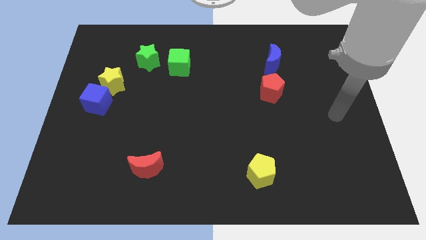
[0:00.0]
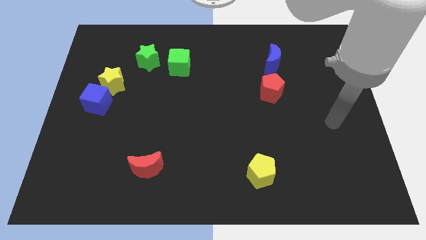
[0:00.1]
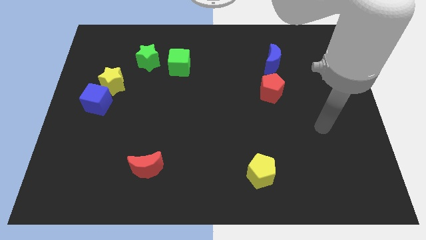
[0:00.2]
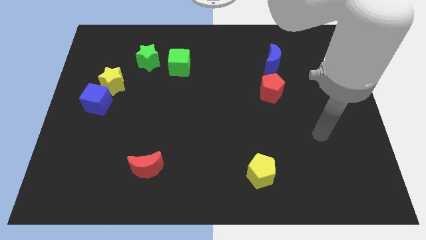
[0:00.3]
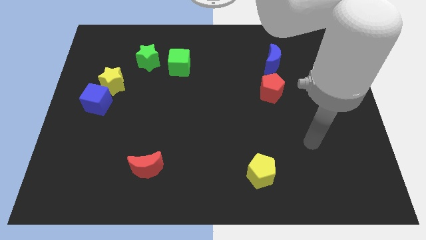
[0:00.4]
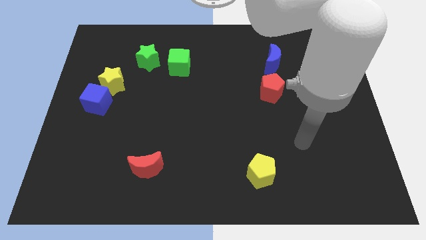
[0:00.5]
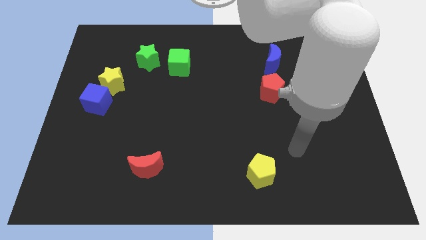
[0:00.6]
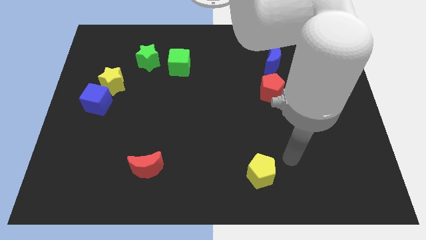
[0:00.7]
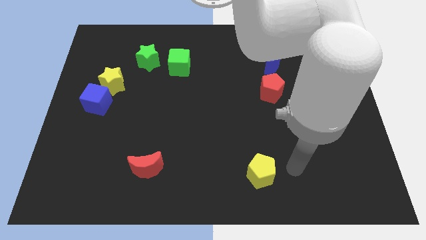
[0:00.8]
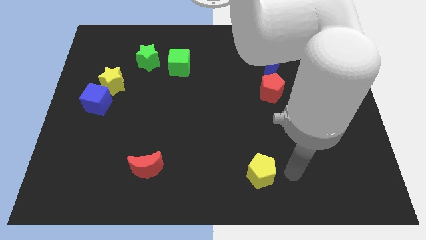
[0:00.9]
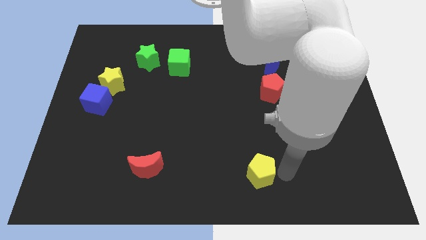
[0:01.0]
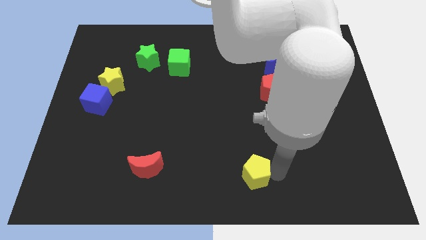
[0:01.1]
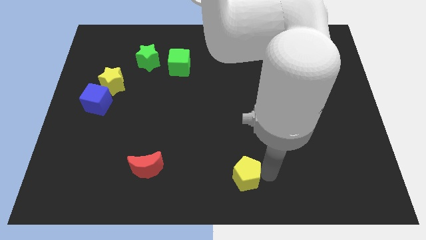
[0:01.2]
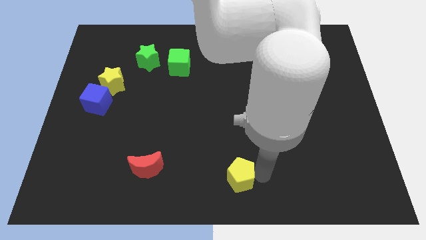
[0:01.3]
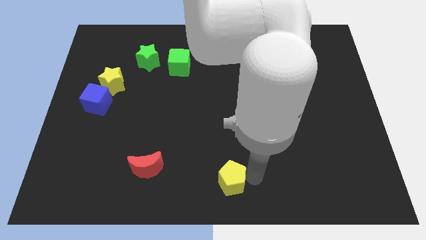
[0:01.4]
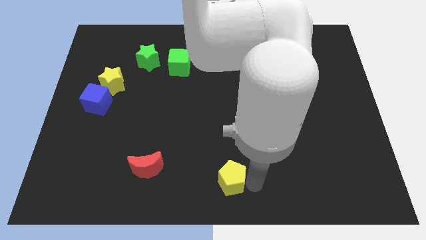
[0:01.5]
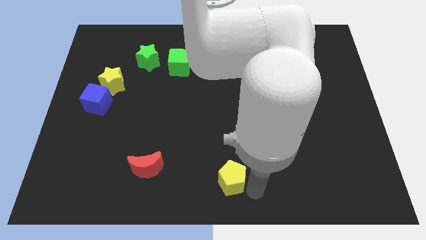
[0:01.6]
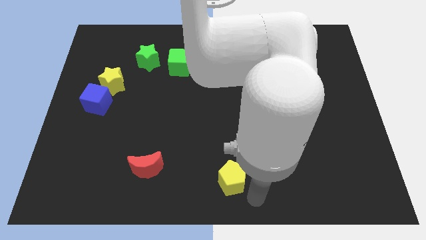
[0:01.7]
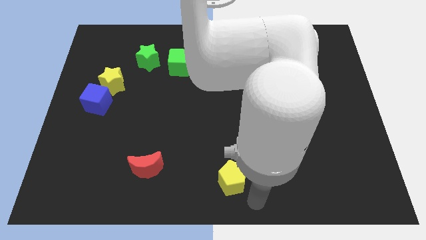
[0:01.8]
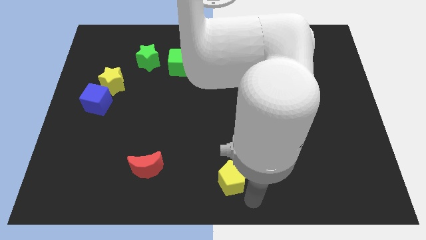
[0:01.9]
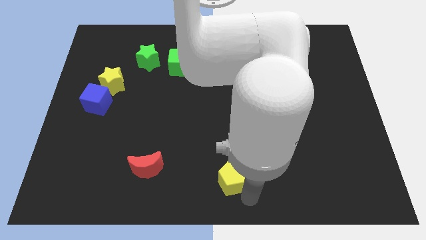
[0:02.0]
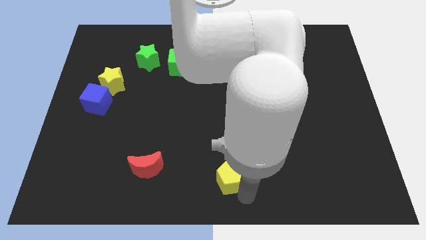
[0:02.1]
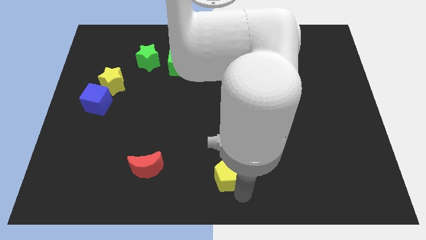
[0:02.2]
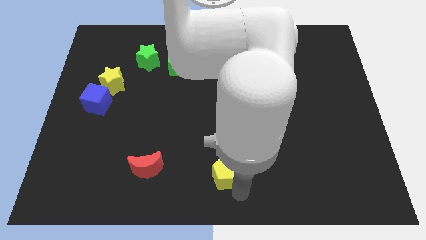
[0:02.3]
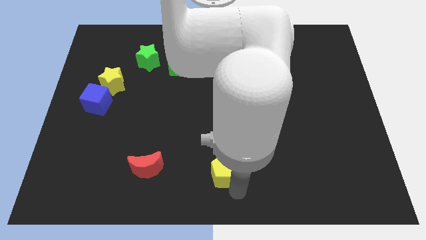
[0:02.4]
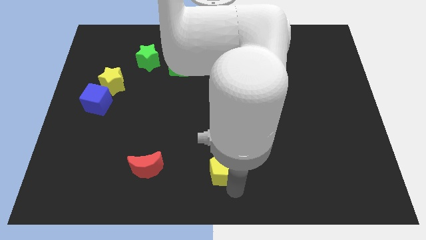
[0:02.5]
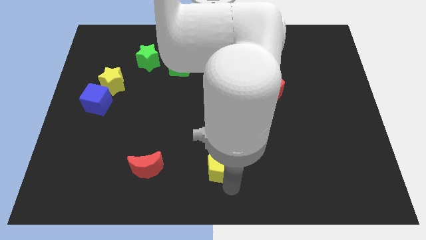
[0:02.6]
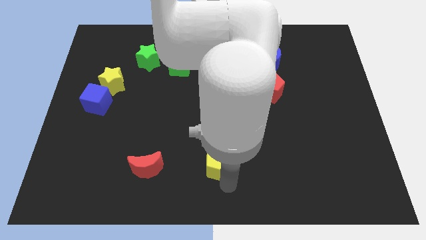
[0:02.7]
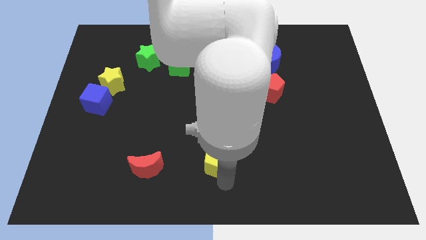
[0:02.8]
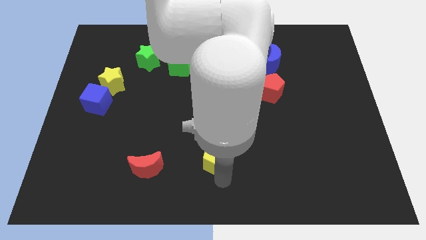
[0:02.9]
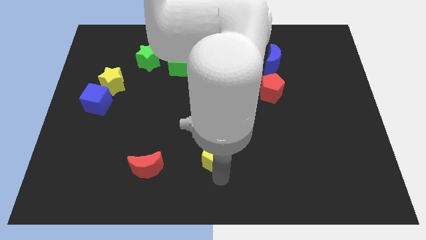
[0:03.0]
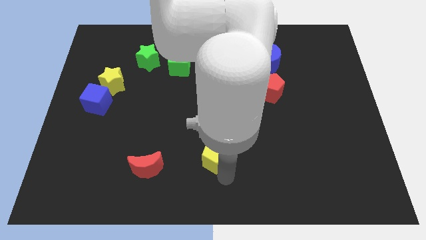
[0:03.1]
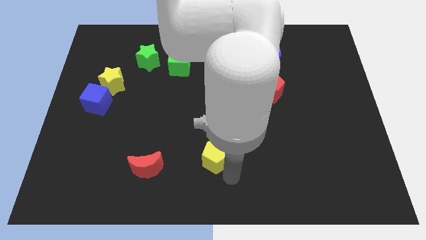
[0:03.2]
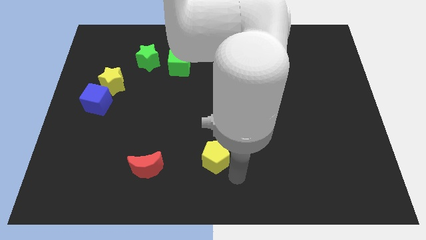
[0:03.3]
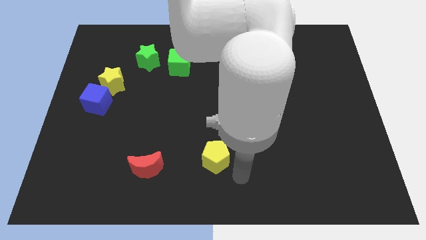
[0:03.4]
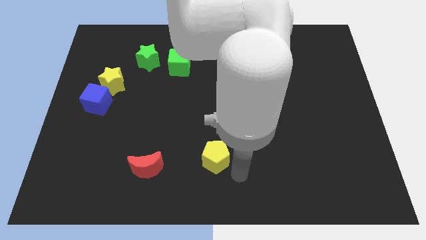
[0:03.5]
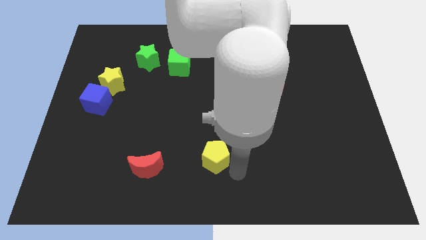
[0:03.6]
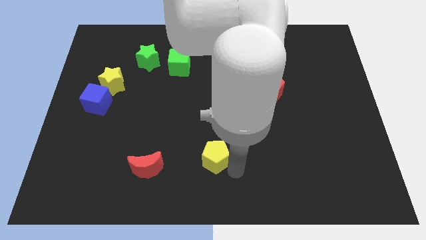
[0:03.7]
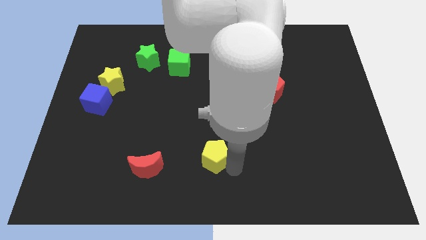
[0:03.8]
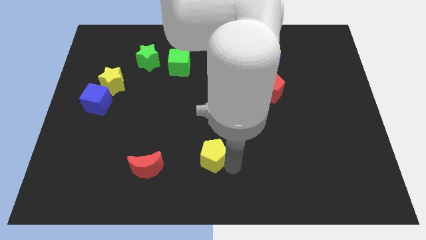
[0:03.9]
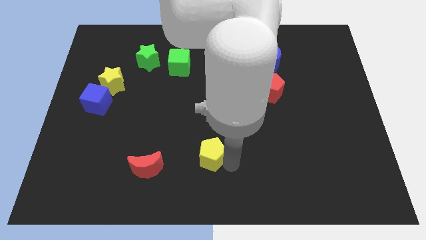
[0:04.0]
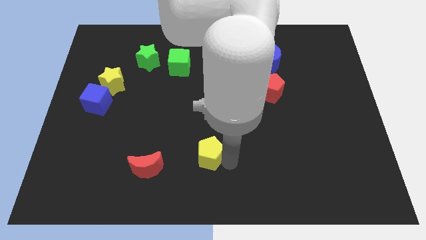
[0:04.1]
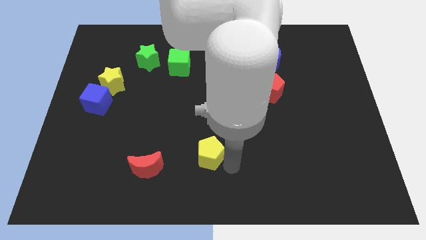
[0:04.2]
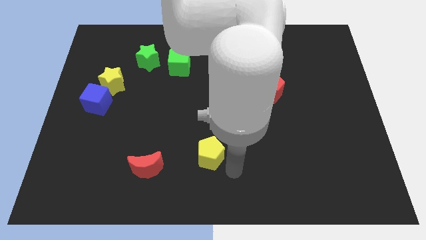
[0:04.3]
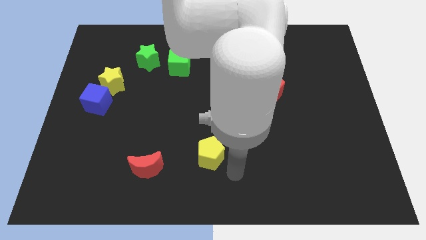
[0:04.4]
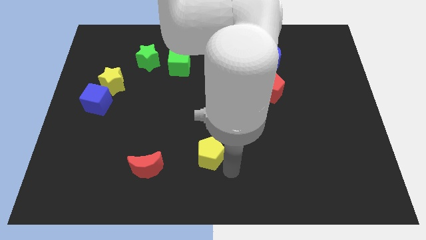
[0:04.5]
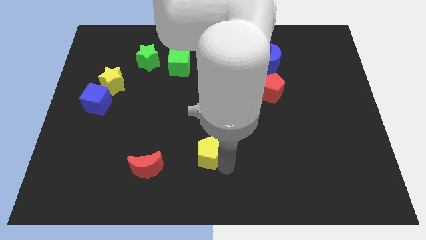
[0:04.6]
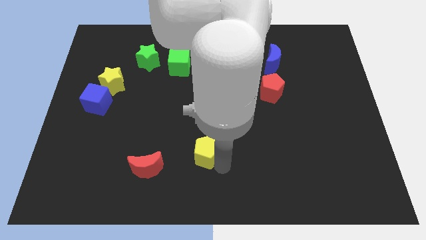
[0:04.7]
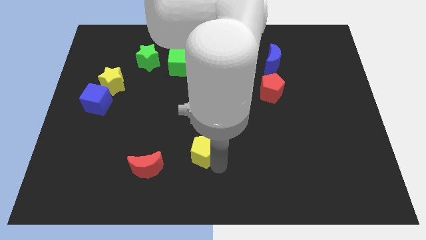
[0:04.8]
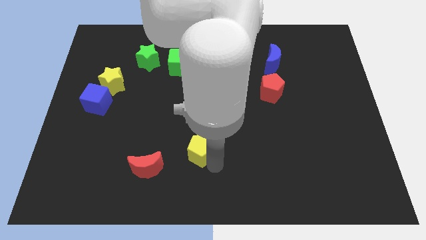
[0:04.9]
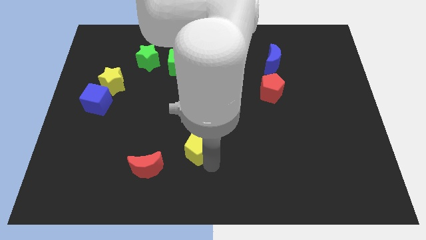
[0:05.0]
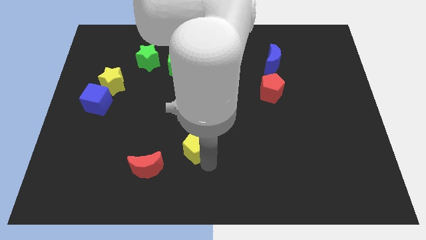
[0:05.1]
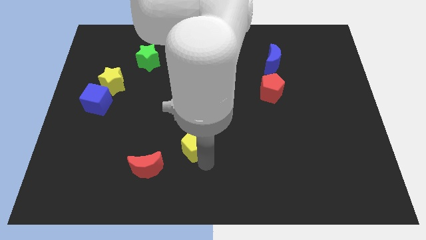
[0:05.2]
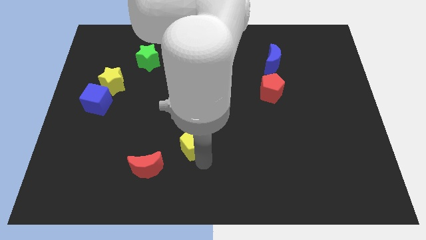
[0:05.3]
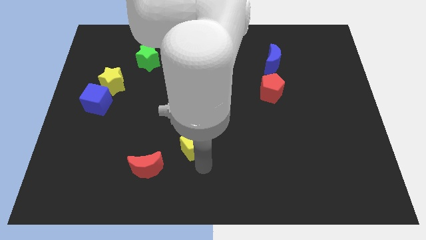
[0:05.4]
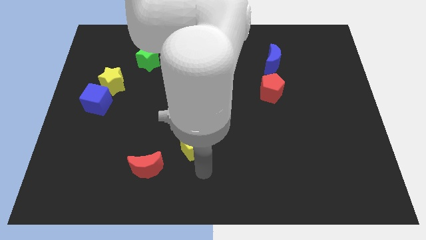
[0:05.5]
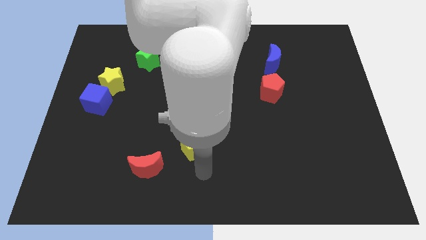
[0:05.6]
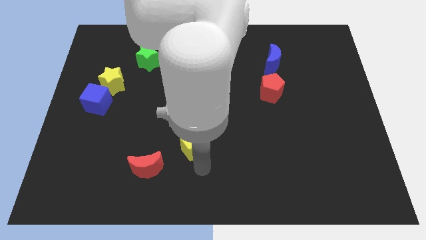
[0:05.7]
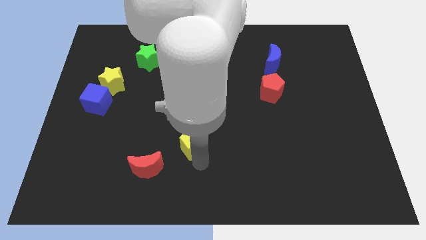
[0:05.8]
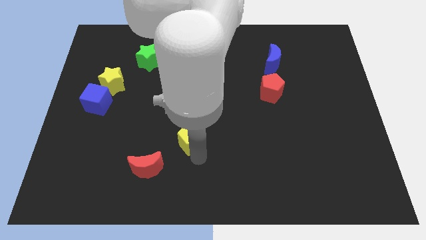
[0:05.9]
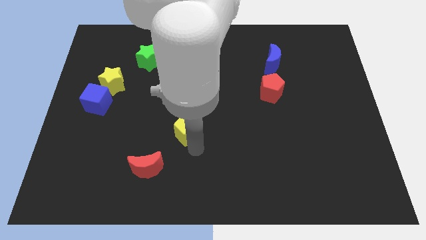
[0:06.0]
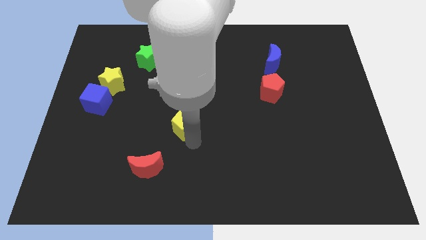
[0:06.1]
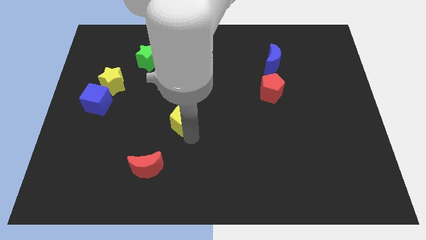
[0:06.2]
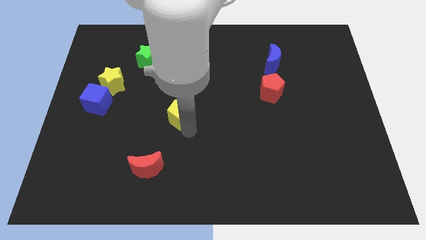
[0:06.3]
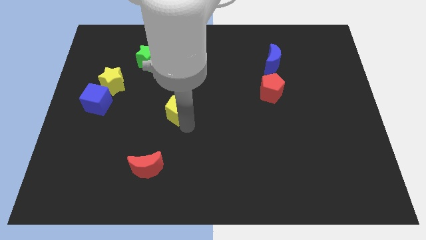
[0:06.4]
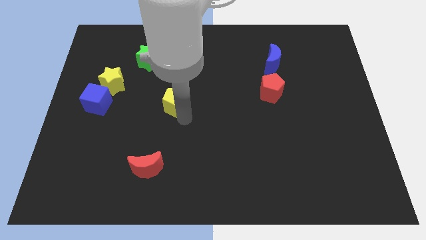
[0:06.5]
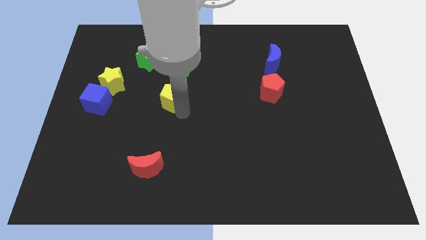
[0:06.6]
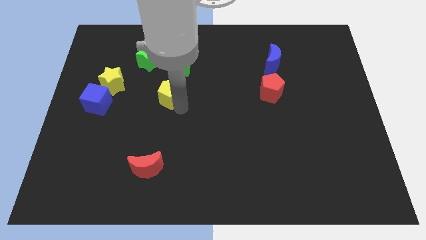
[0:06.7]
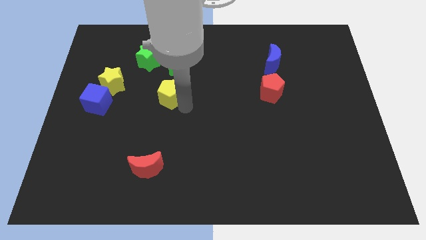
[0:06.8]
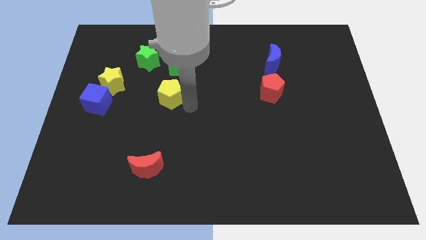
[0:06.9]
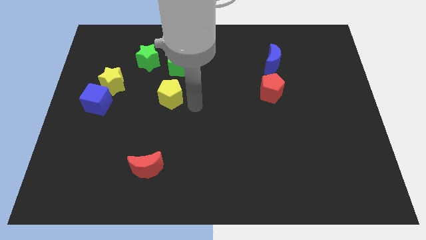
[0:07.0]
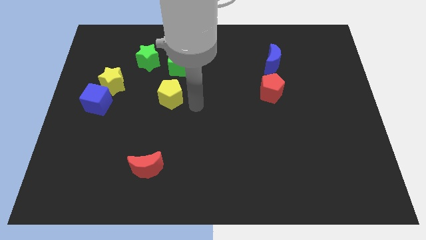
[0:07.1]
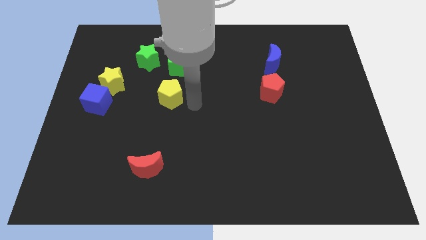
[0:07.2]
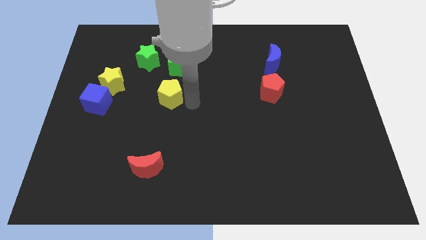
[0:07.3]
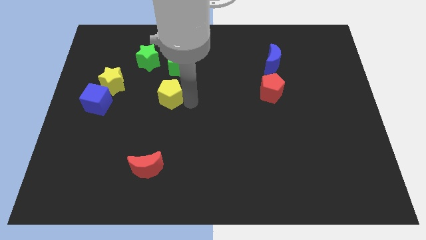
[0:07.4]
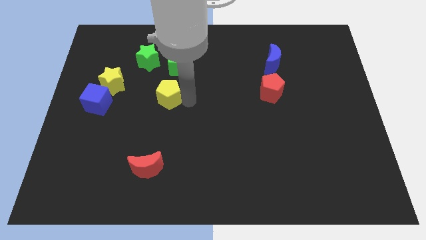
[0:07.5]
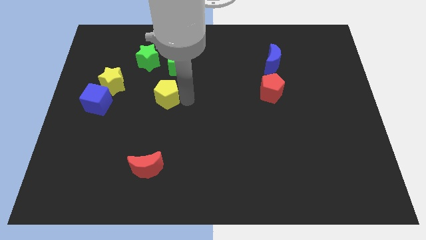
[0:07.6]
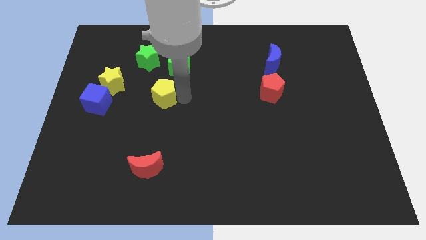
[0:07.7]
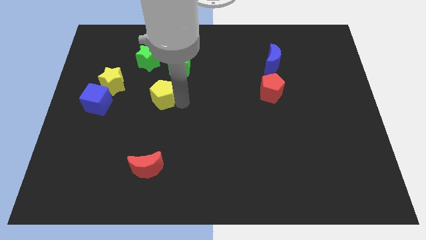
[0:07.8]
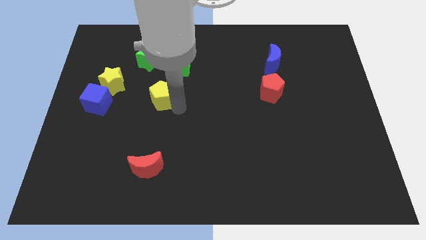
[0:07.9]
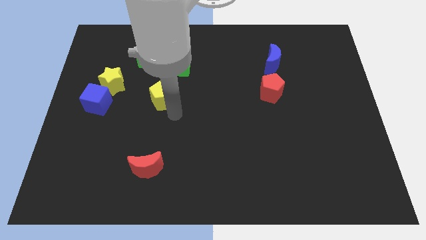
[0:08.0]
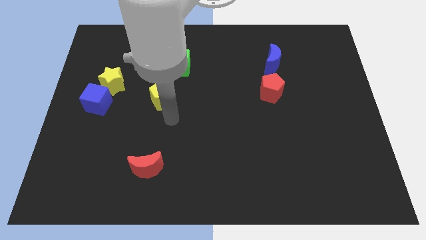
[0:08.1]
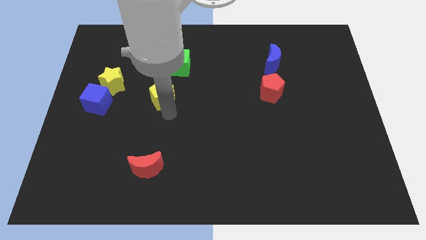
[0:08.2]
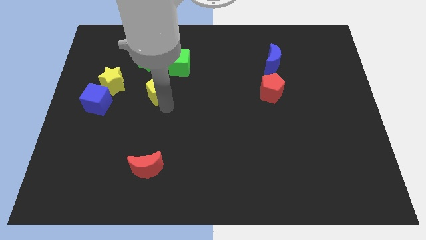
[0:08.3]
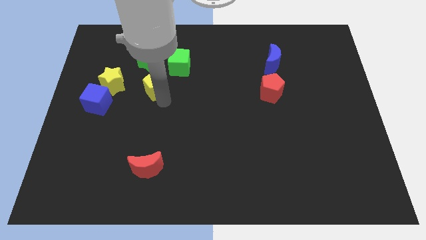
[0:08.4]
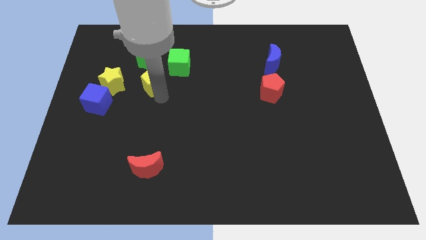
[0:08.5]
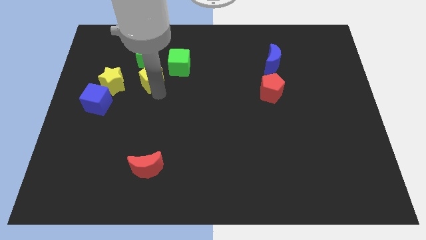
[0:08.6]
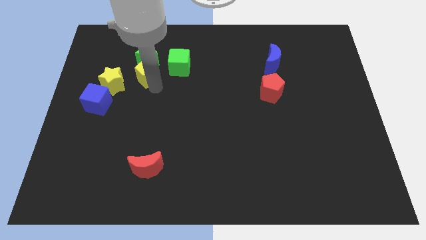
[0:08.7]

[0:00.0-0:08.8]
slide the yellow pentagon towards the green star
